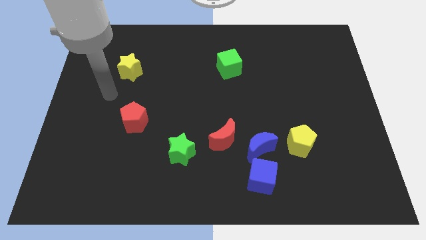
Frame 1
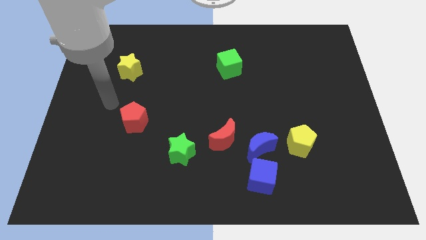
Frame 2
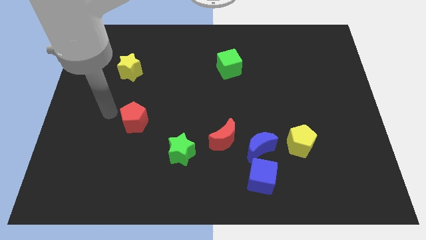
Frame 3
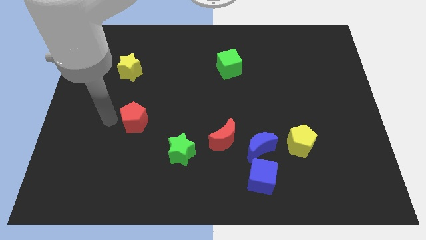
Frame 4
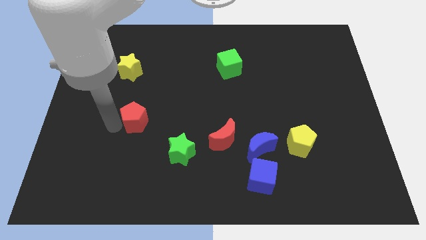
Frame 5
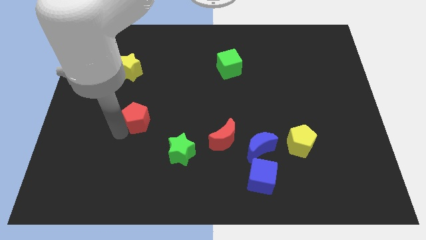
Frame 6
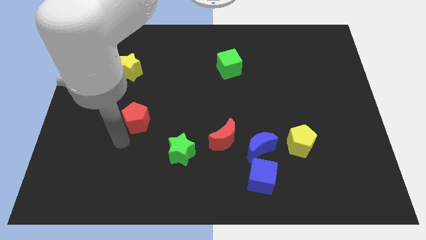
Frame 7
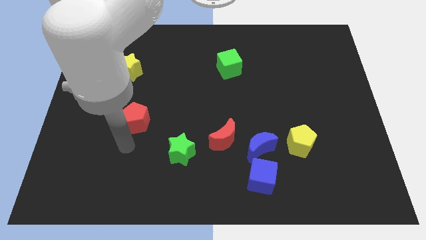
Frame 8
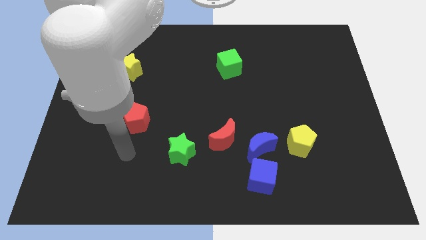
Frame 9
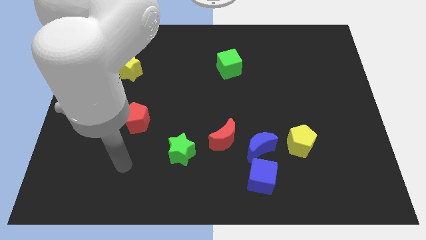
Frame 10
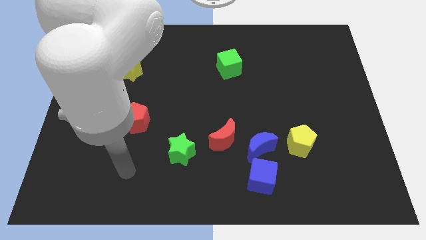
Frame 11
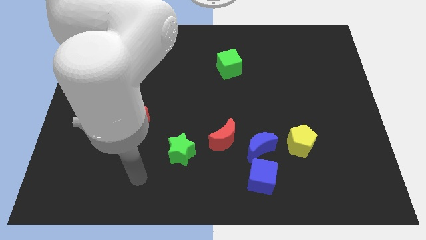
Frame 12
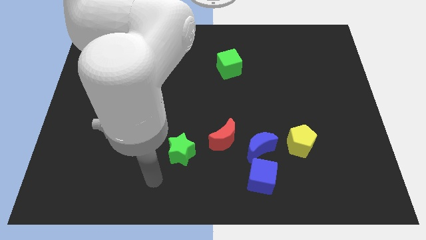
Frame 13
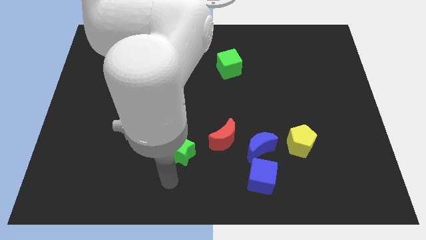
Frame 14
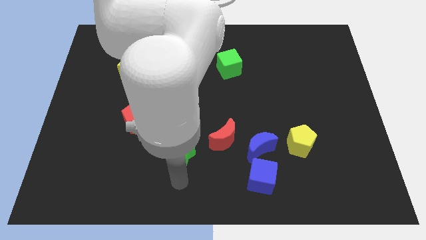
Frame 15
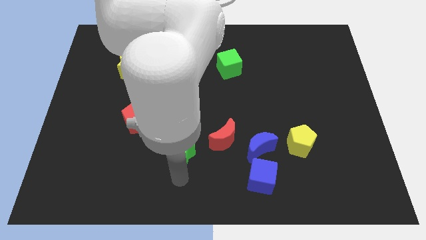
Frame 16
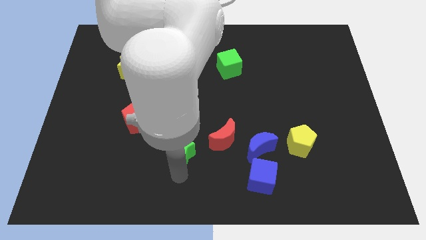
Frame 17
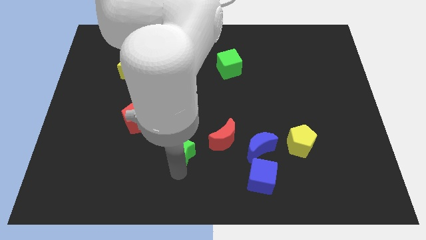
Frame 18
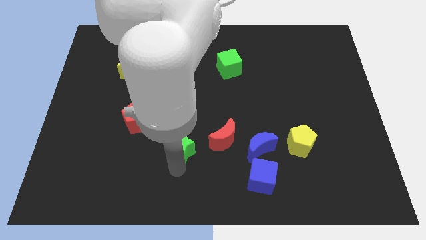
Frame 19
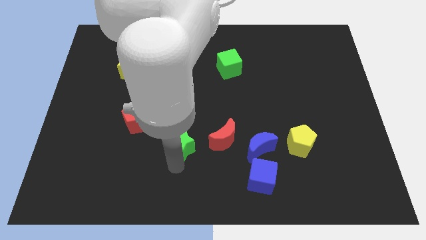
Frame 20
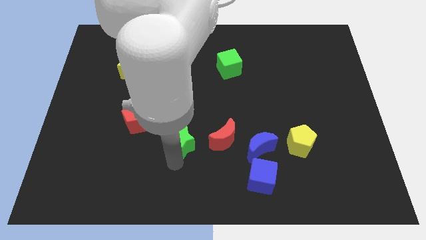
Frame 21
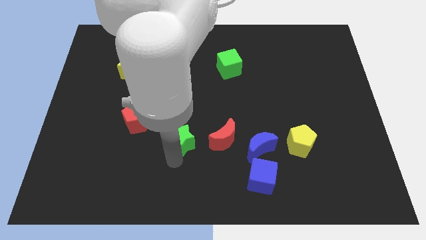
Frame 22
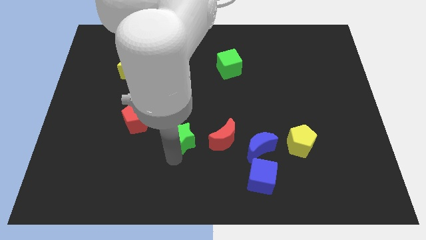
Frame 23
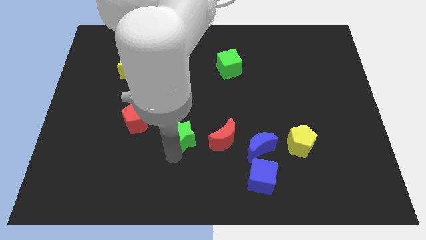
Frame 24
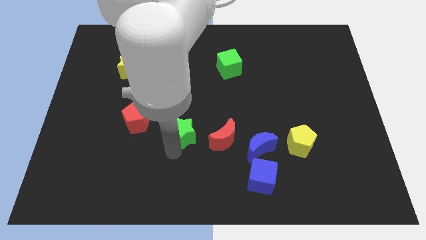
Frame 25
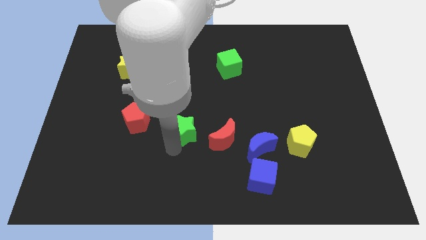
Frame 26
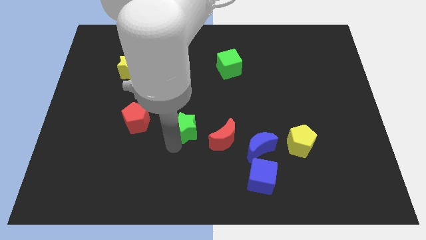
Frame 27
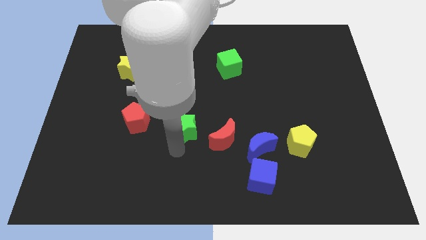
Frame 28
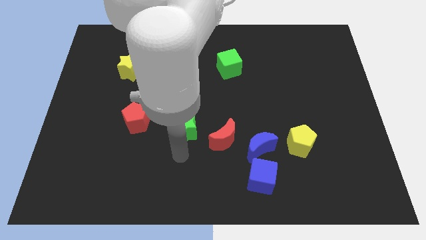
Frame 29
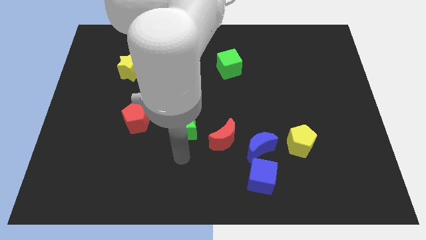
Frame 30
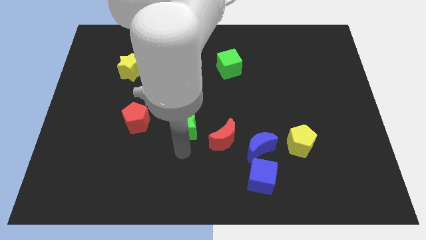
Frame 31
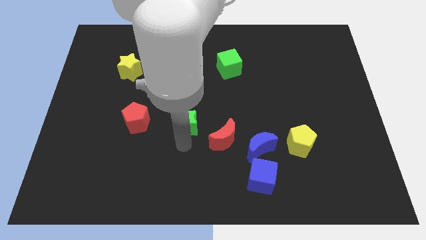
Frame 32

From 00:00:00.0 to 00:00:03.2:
slightly slide the green star up

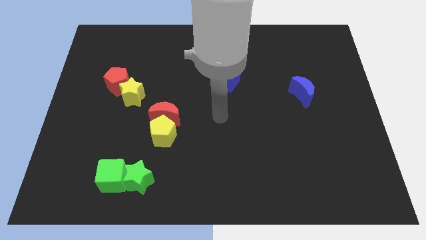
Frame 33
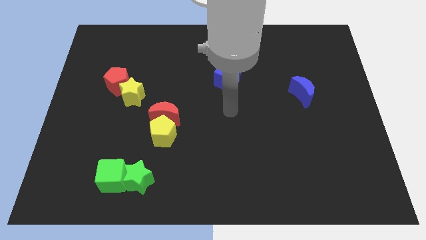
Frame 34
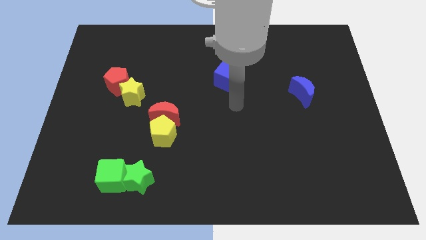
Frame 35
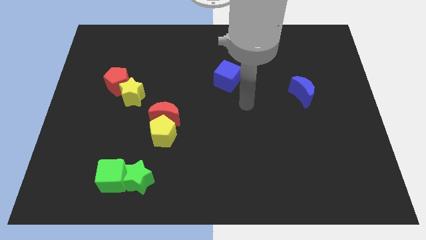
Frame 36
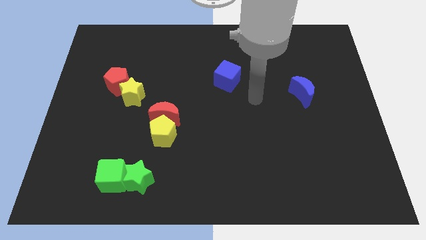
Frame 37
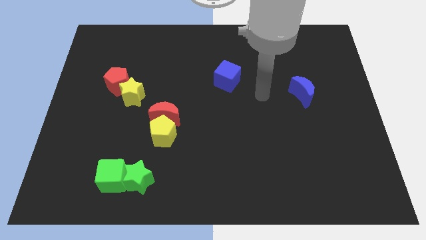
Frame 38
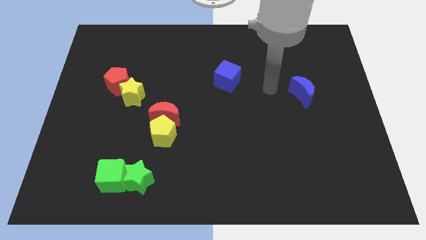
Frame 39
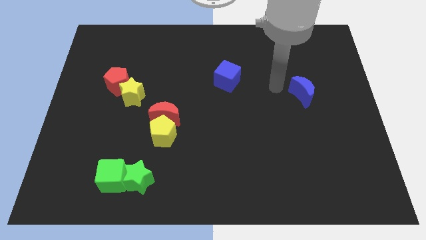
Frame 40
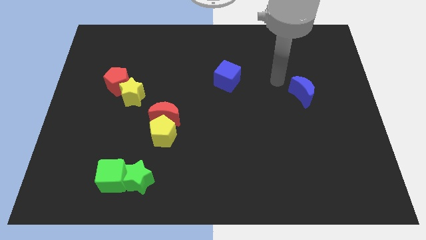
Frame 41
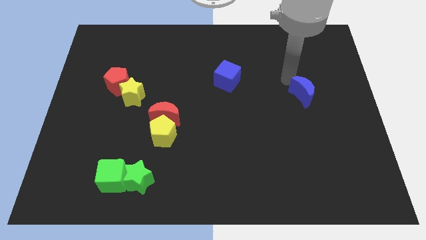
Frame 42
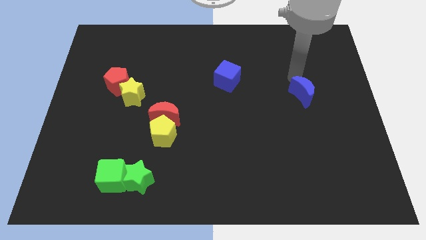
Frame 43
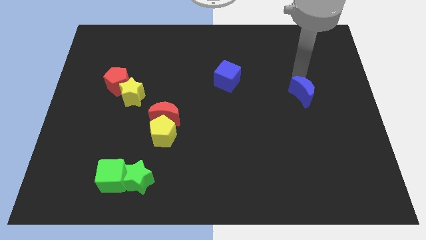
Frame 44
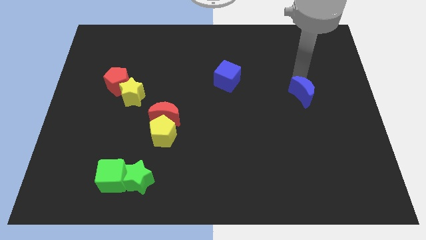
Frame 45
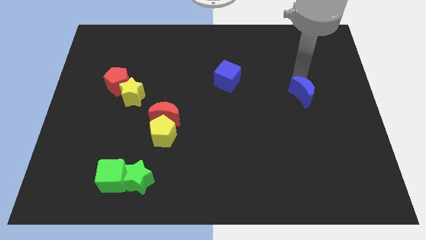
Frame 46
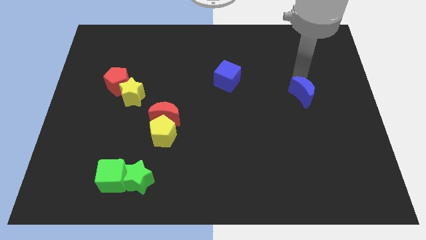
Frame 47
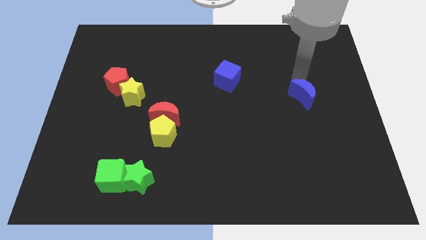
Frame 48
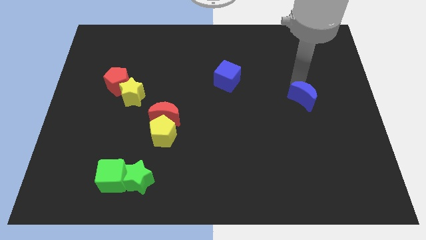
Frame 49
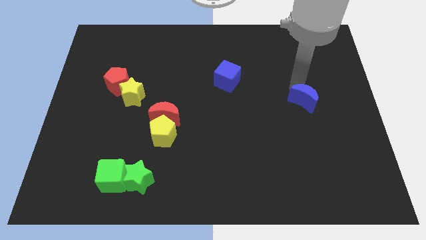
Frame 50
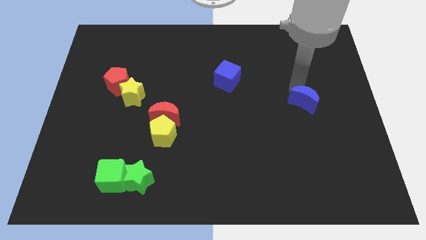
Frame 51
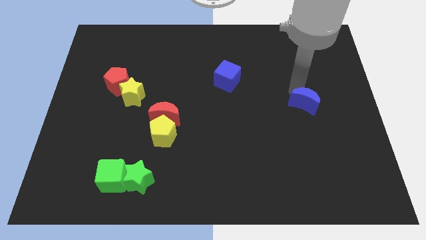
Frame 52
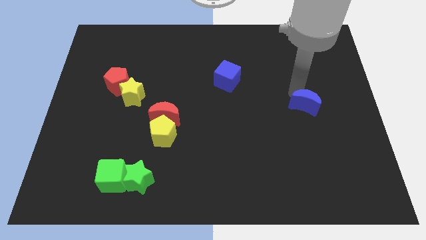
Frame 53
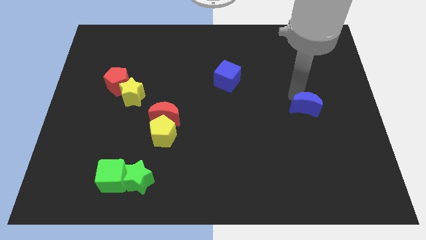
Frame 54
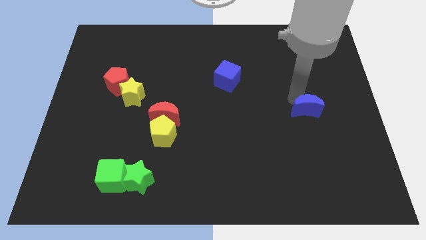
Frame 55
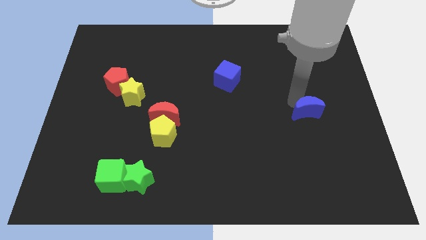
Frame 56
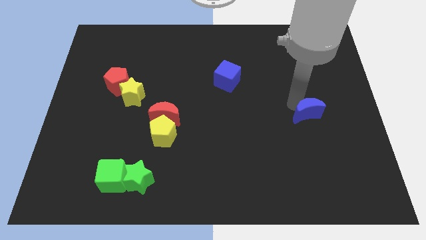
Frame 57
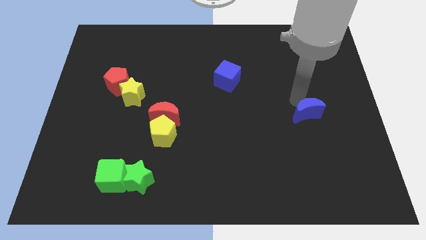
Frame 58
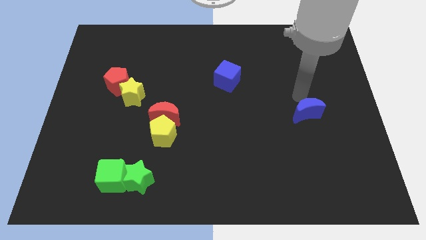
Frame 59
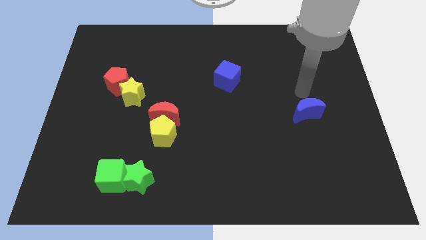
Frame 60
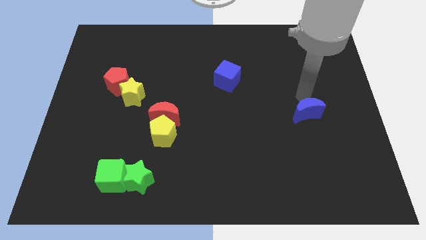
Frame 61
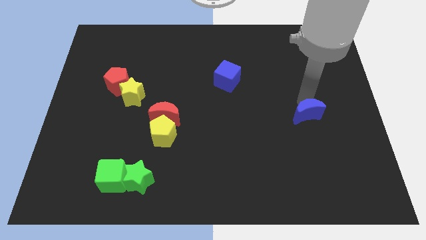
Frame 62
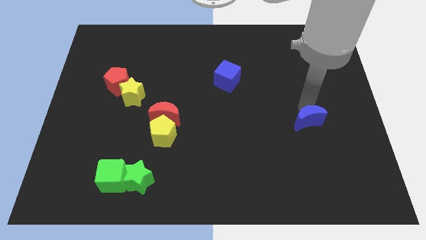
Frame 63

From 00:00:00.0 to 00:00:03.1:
slide the blue moon downwards a little

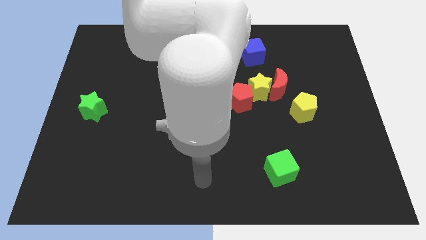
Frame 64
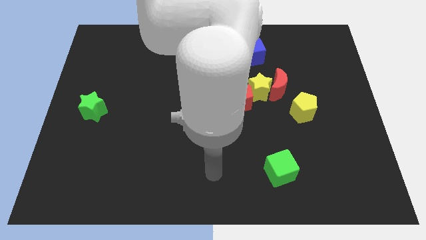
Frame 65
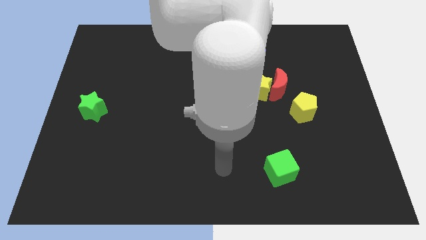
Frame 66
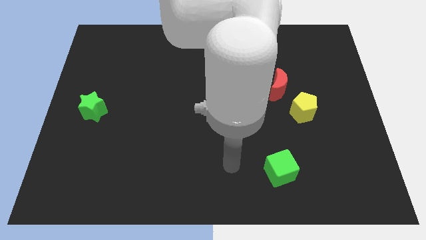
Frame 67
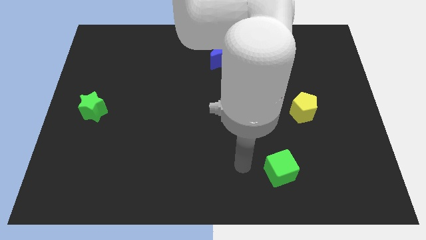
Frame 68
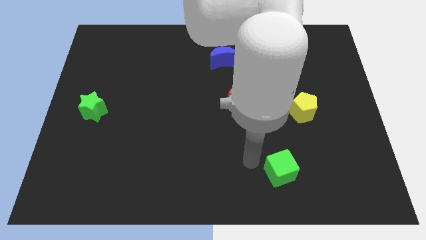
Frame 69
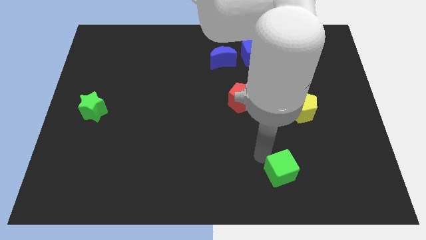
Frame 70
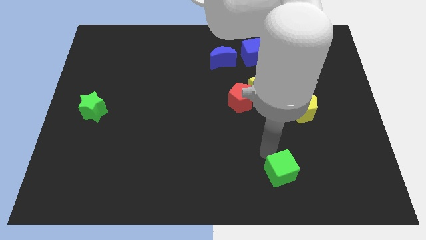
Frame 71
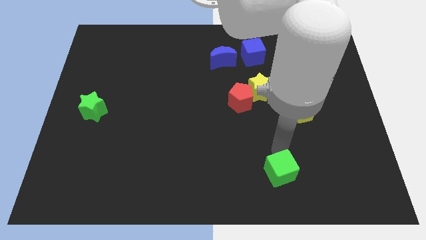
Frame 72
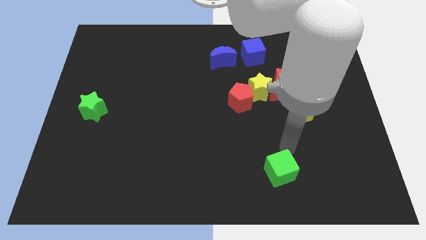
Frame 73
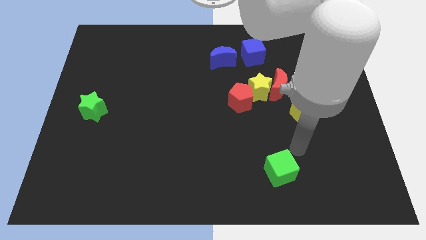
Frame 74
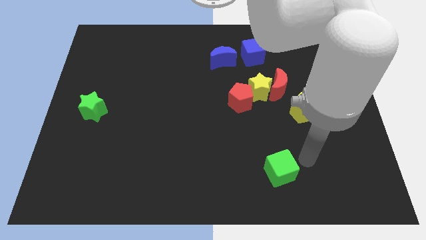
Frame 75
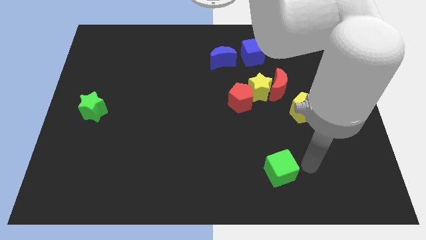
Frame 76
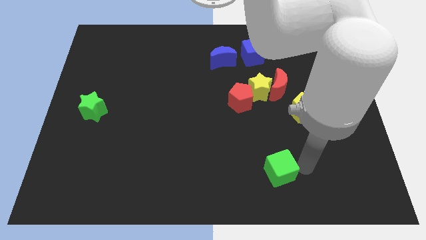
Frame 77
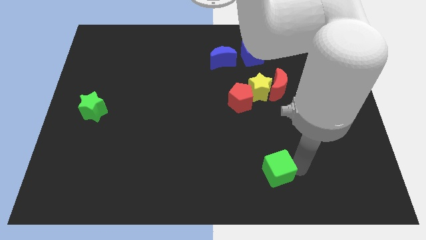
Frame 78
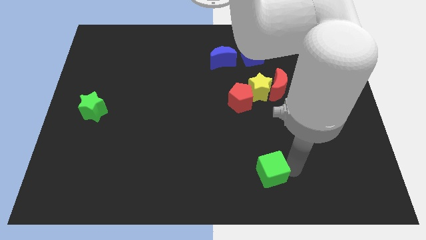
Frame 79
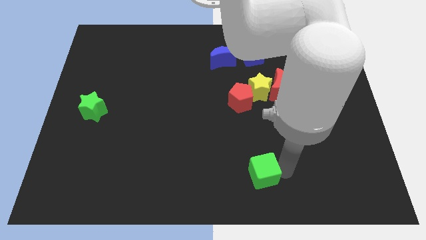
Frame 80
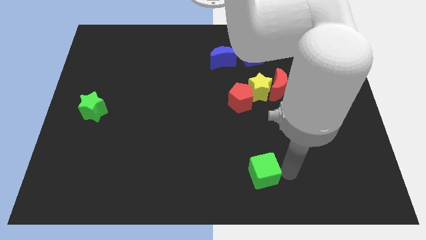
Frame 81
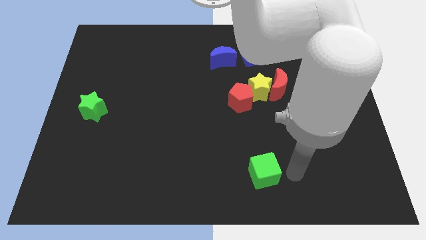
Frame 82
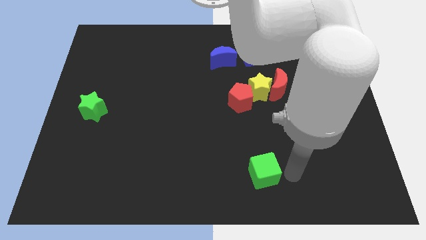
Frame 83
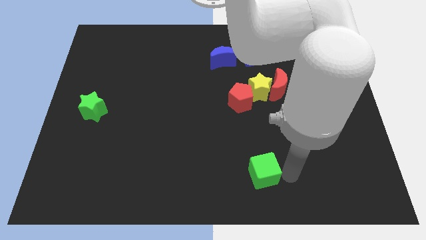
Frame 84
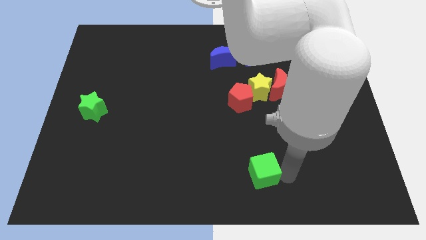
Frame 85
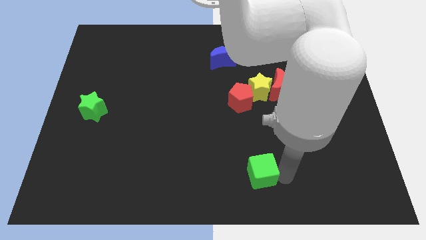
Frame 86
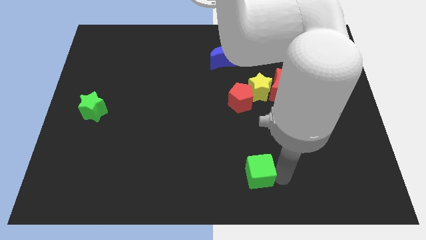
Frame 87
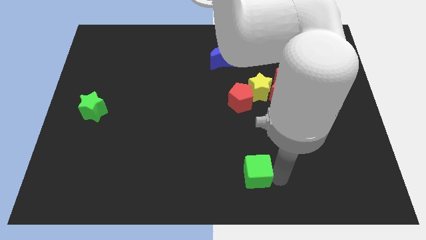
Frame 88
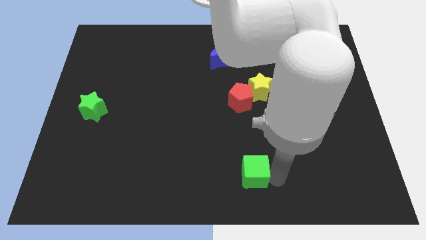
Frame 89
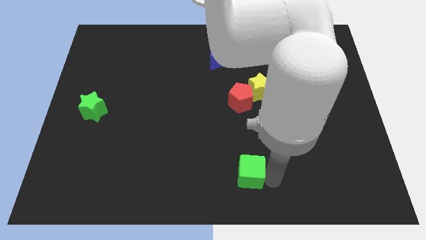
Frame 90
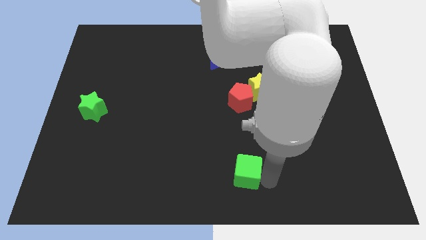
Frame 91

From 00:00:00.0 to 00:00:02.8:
push the green cube slightly to the left
